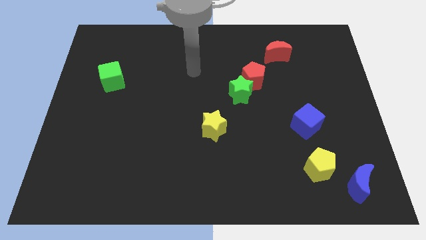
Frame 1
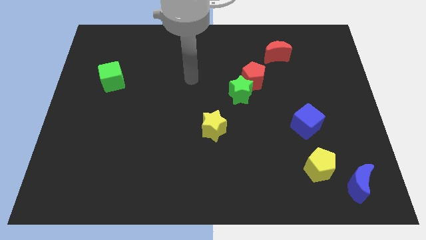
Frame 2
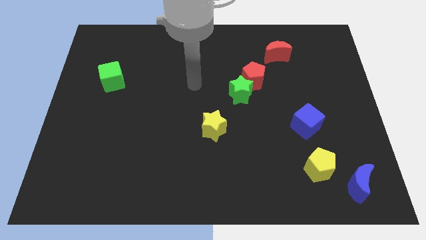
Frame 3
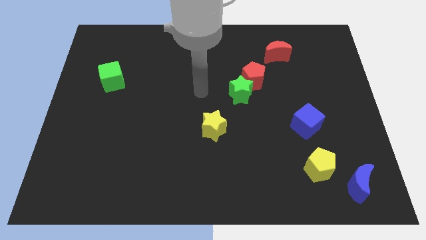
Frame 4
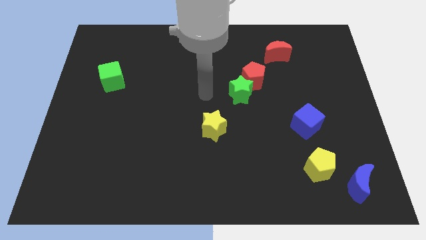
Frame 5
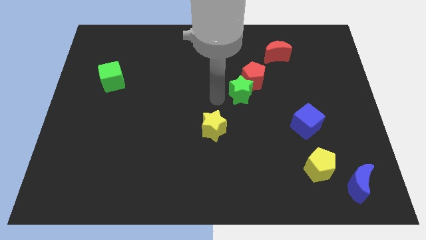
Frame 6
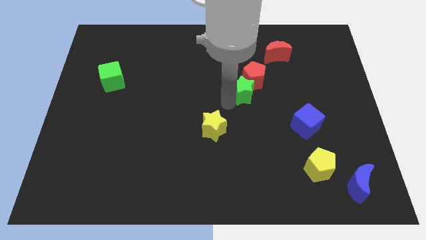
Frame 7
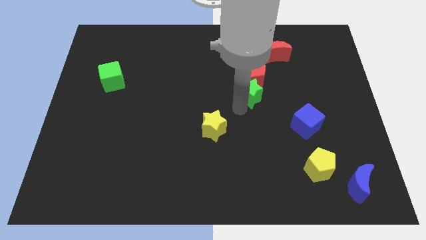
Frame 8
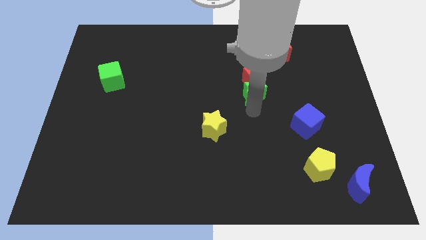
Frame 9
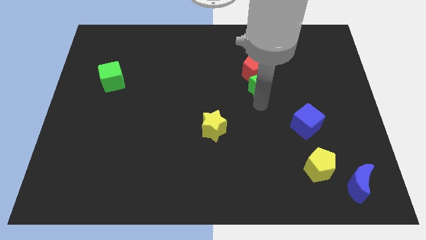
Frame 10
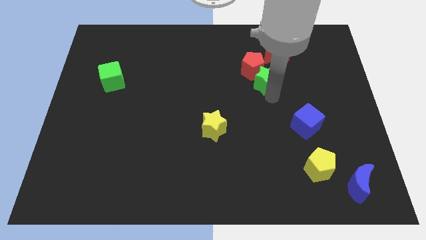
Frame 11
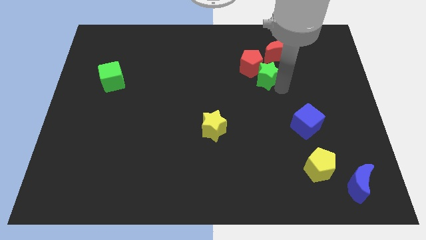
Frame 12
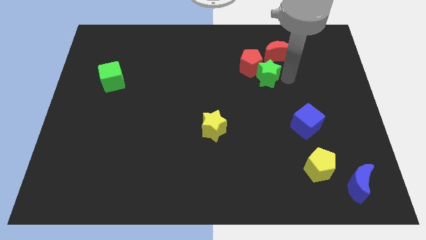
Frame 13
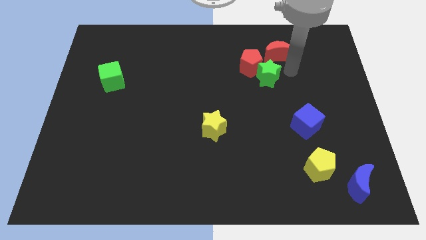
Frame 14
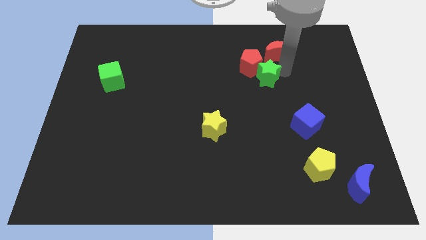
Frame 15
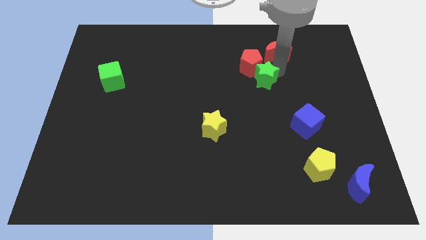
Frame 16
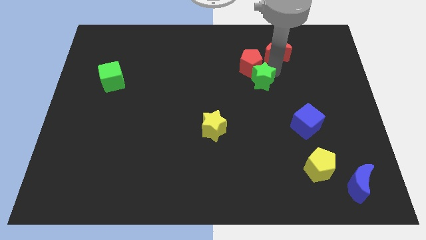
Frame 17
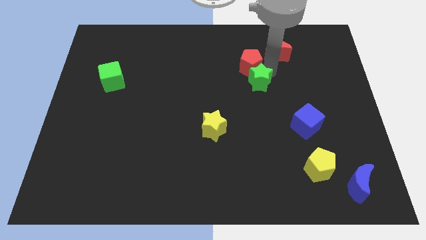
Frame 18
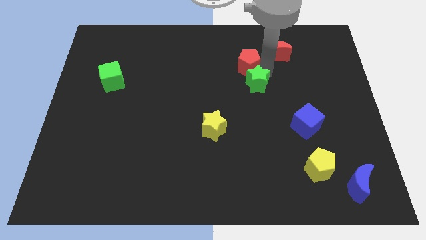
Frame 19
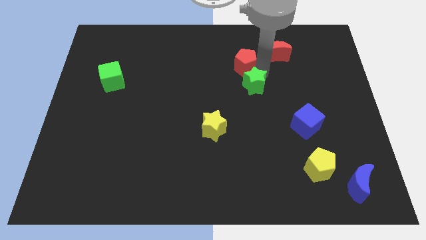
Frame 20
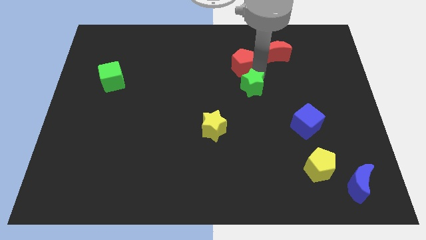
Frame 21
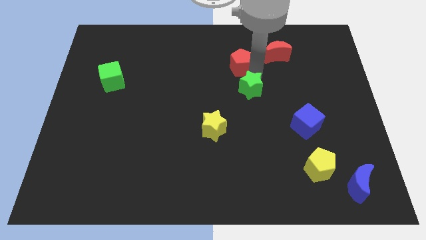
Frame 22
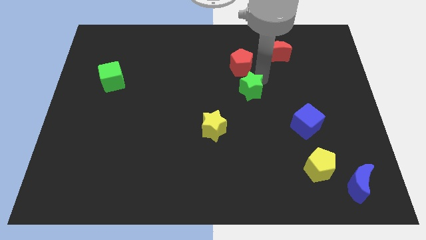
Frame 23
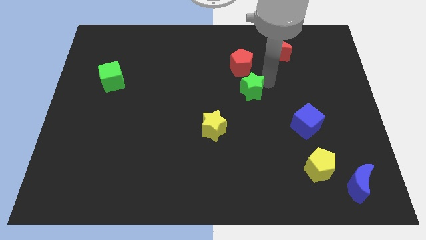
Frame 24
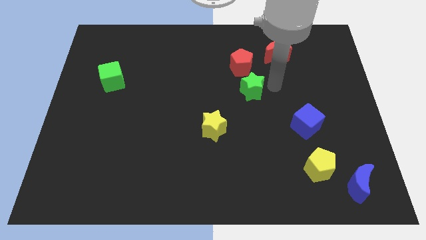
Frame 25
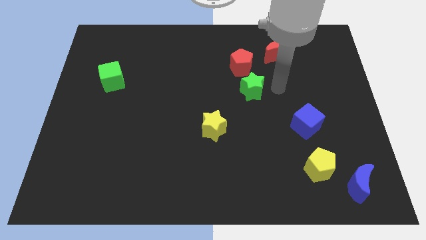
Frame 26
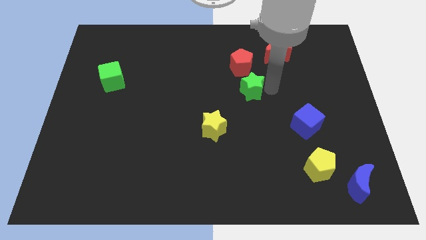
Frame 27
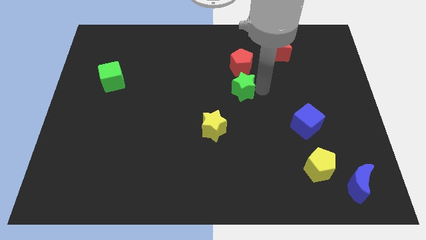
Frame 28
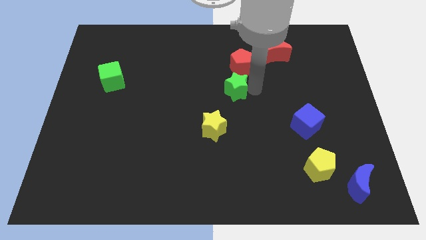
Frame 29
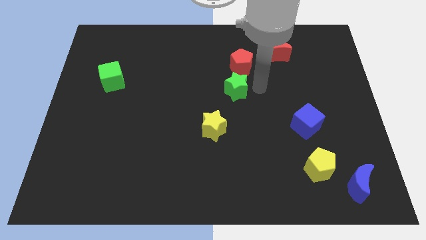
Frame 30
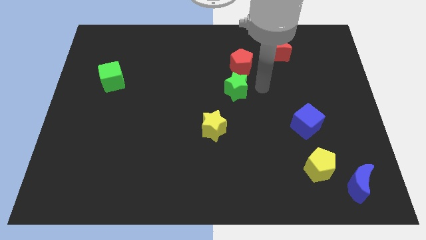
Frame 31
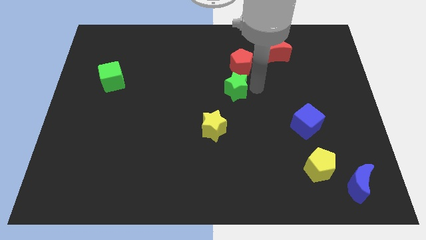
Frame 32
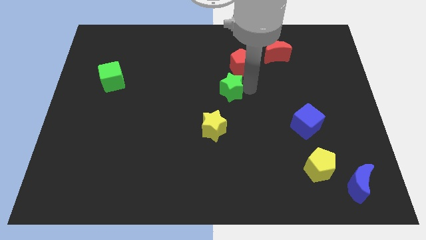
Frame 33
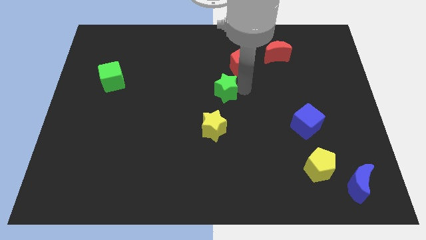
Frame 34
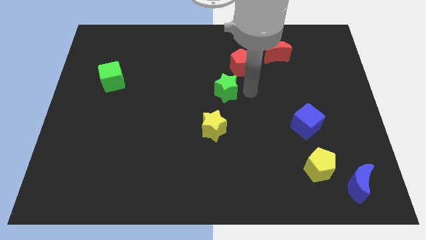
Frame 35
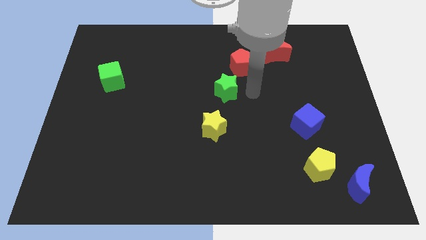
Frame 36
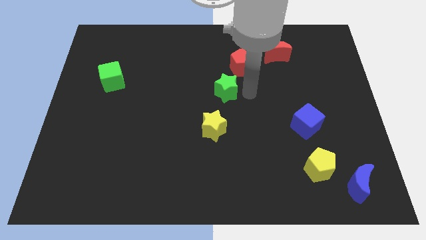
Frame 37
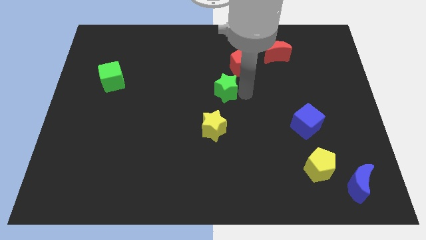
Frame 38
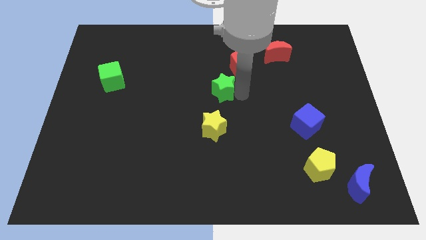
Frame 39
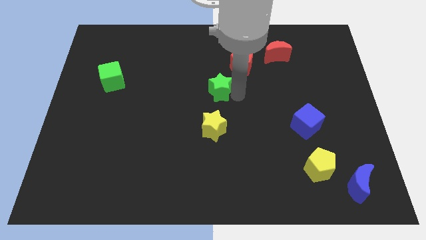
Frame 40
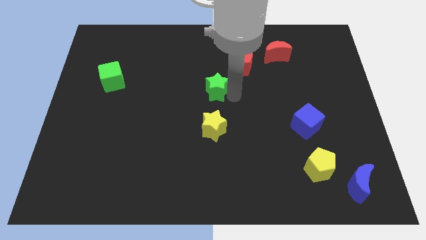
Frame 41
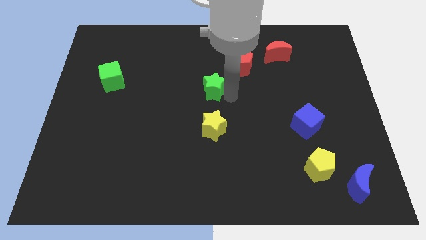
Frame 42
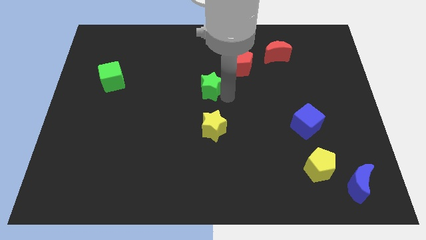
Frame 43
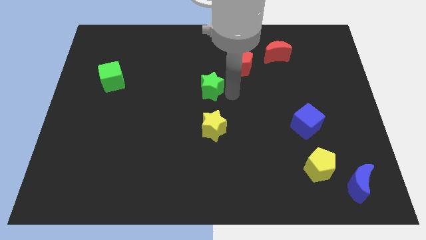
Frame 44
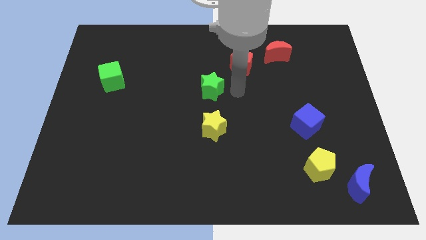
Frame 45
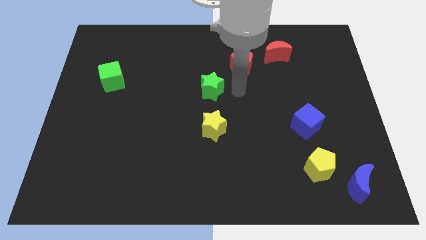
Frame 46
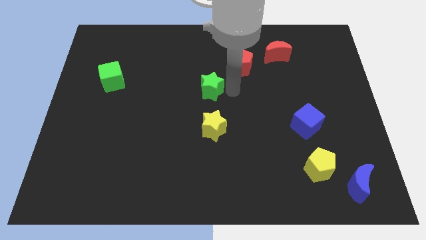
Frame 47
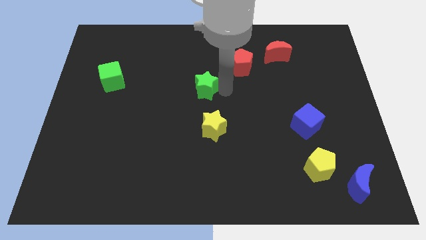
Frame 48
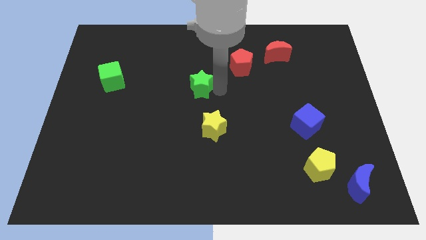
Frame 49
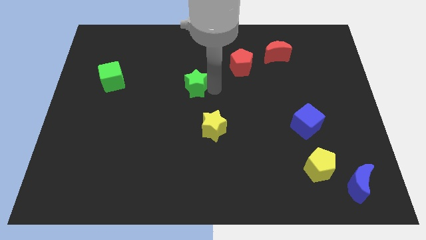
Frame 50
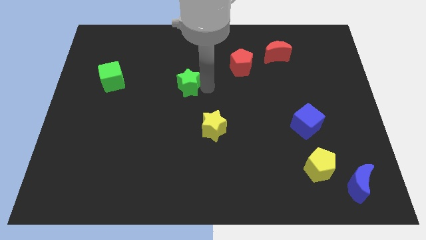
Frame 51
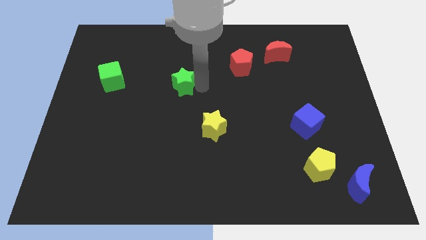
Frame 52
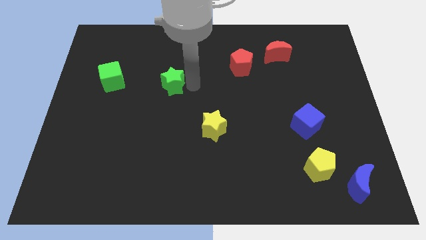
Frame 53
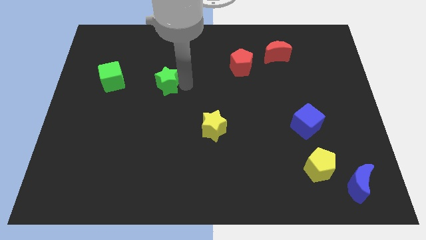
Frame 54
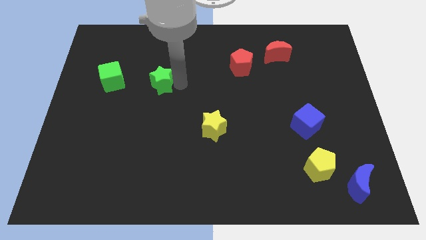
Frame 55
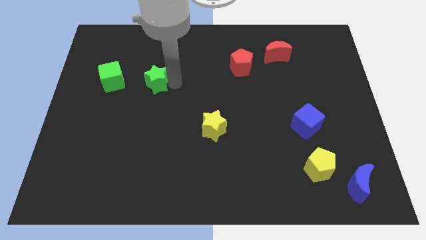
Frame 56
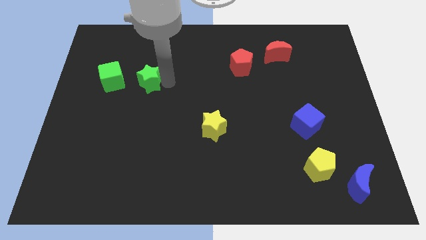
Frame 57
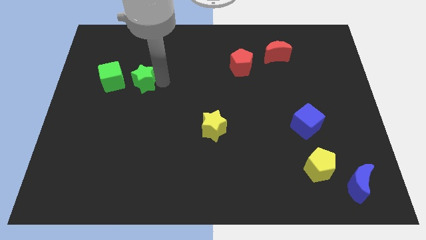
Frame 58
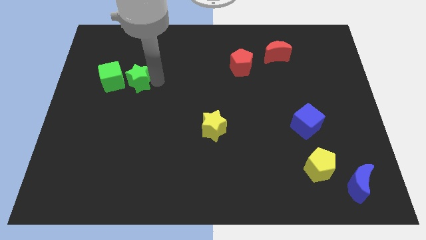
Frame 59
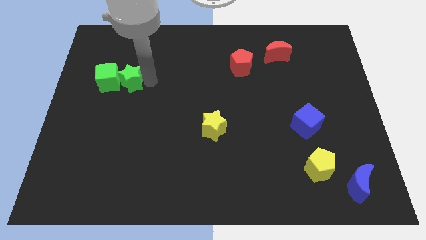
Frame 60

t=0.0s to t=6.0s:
put the green star close to the green cube

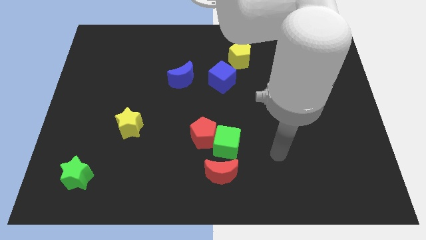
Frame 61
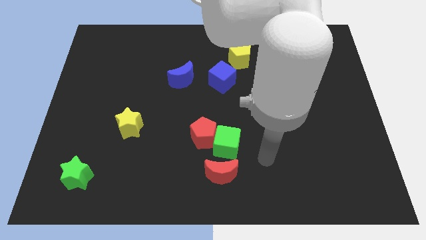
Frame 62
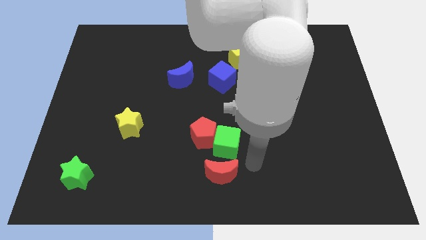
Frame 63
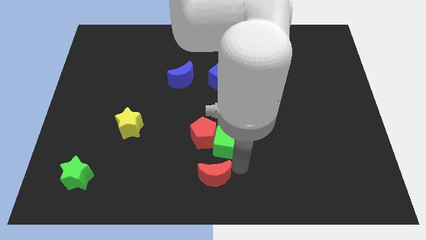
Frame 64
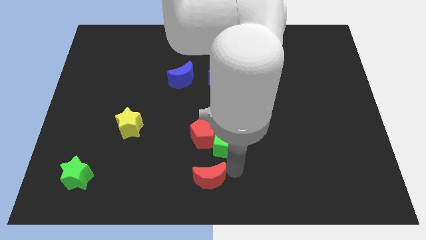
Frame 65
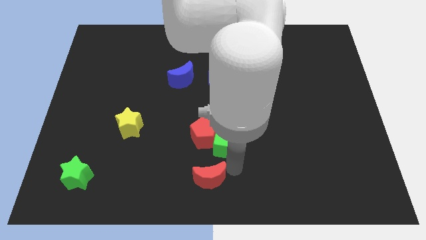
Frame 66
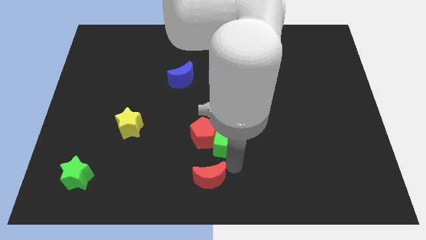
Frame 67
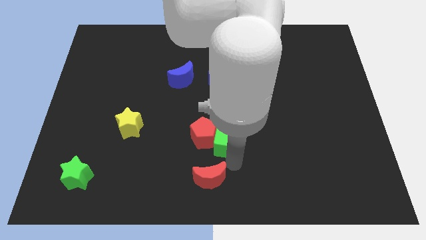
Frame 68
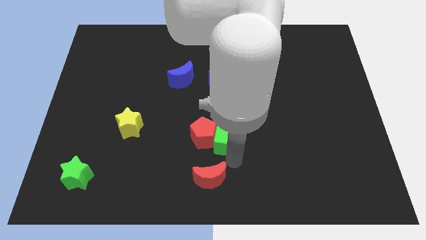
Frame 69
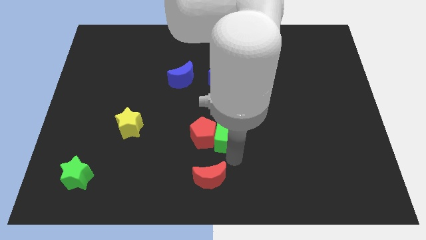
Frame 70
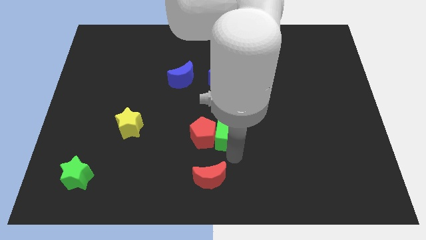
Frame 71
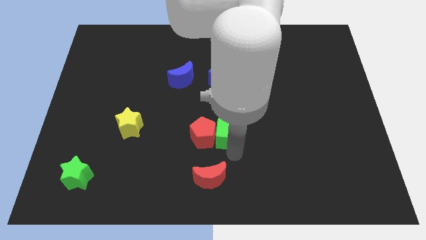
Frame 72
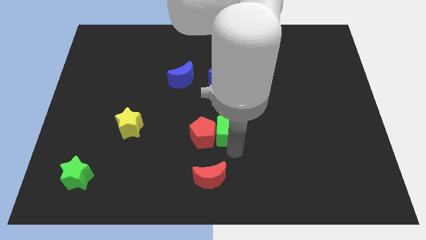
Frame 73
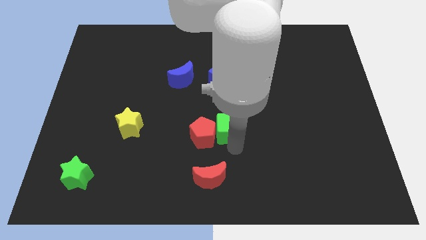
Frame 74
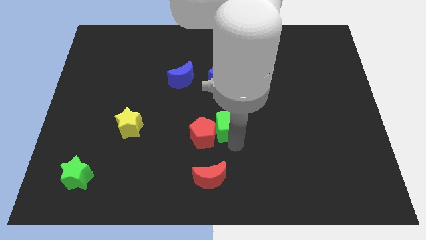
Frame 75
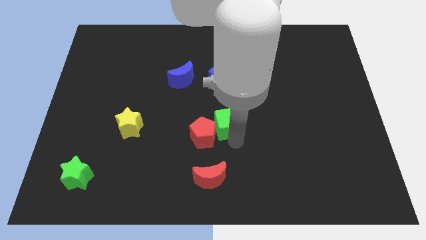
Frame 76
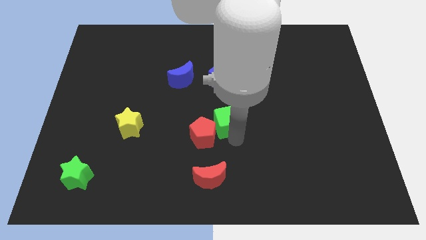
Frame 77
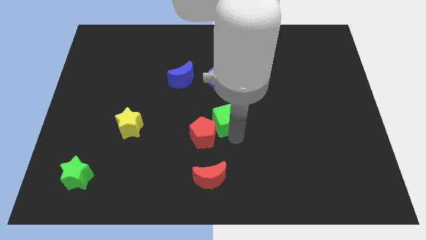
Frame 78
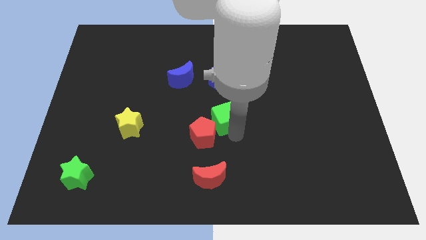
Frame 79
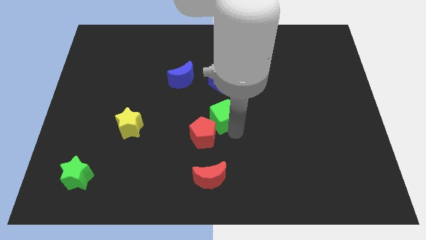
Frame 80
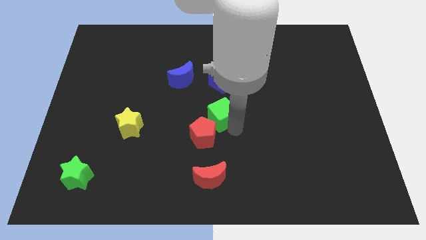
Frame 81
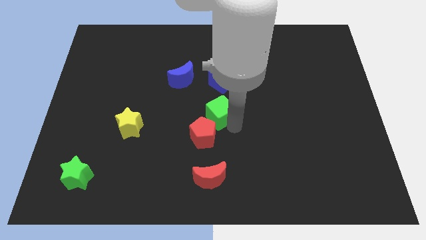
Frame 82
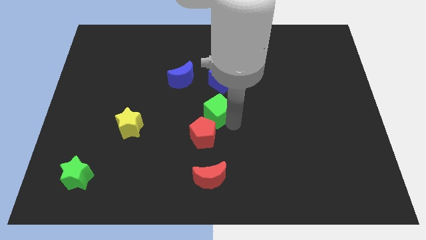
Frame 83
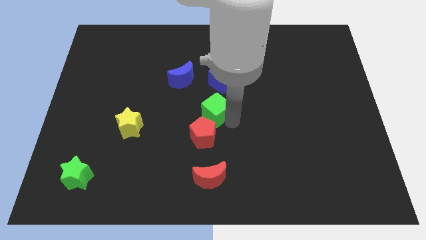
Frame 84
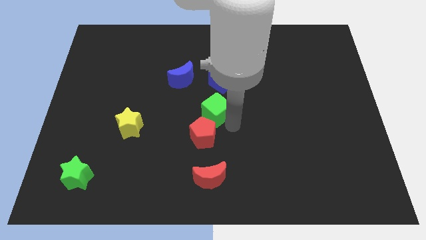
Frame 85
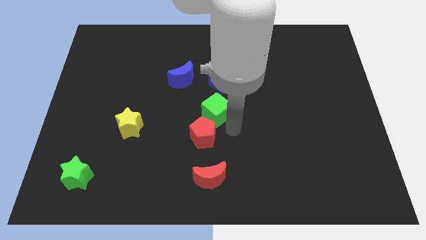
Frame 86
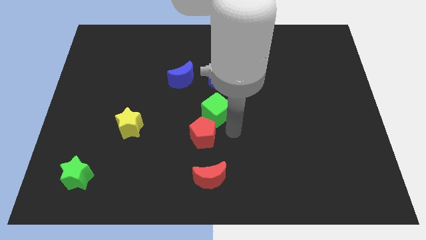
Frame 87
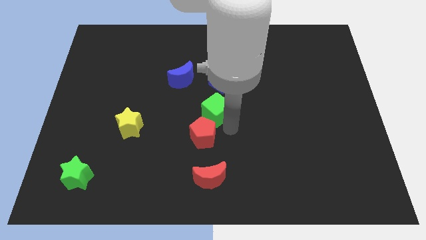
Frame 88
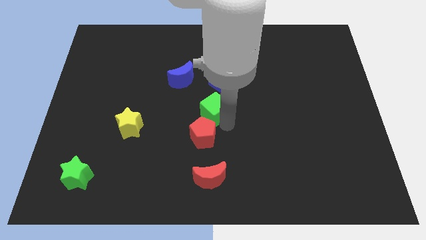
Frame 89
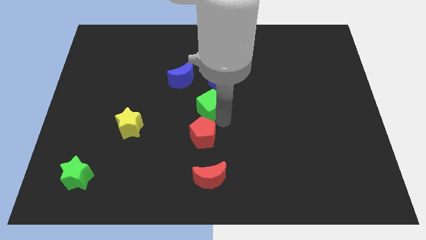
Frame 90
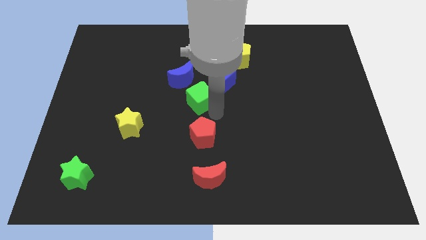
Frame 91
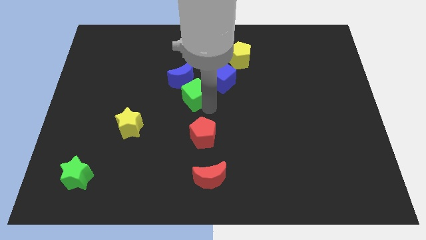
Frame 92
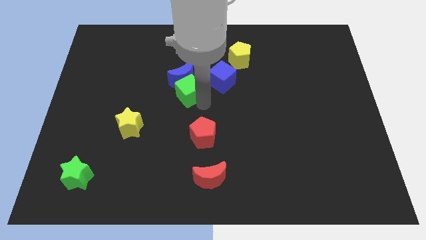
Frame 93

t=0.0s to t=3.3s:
move the green cube close to the blue moon
